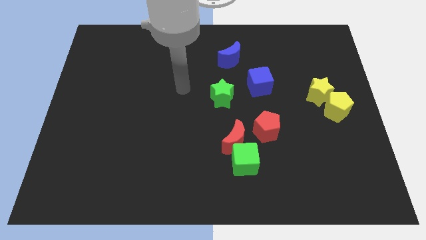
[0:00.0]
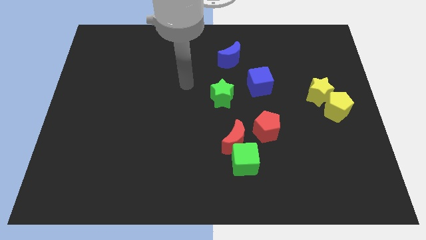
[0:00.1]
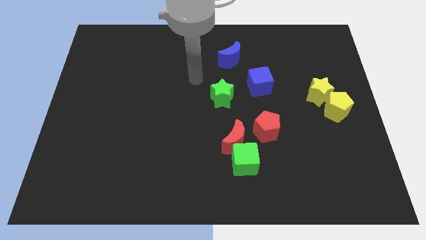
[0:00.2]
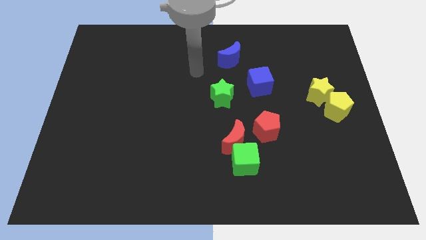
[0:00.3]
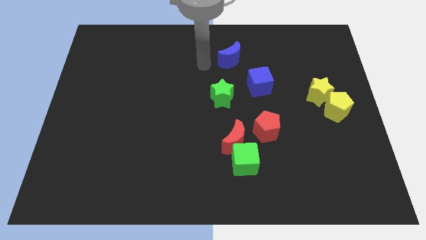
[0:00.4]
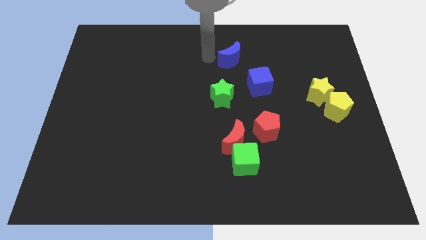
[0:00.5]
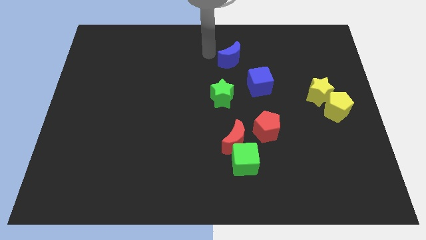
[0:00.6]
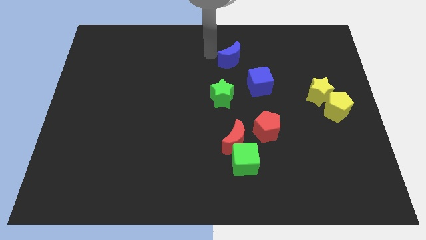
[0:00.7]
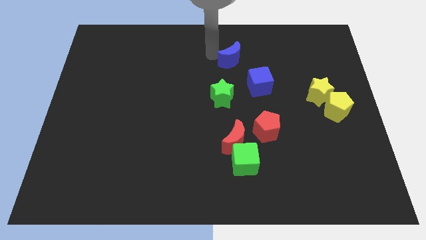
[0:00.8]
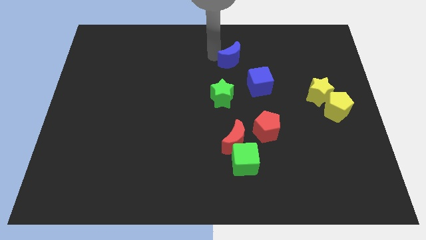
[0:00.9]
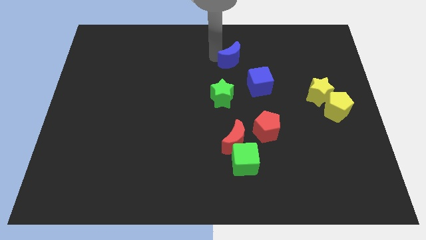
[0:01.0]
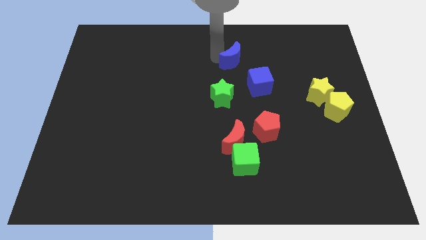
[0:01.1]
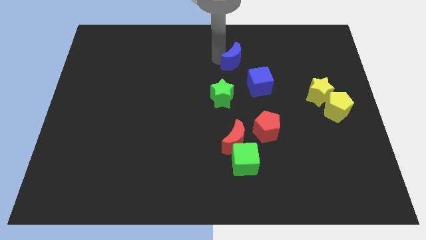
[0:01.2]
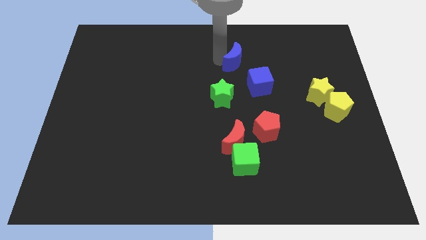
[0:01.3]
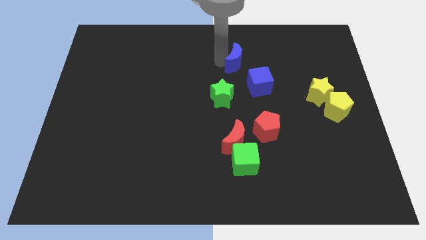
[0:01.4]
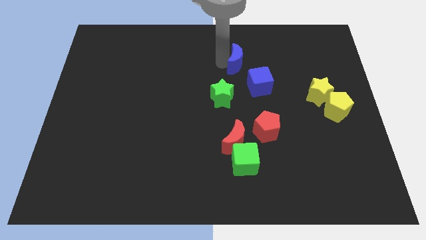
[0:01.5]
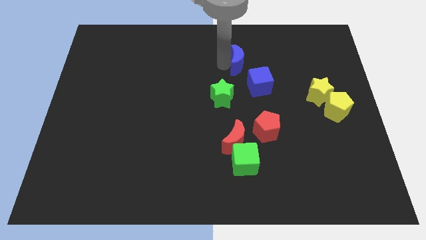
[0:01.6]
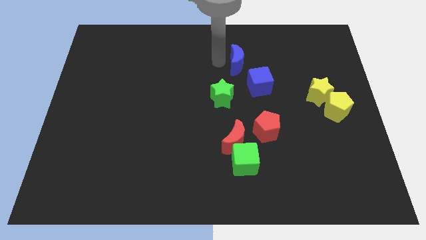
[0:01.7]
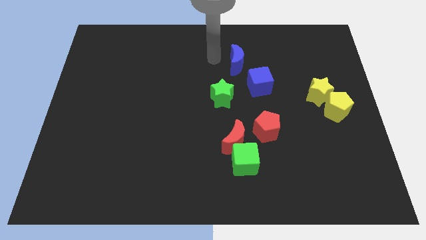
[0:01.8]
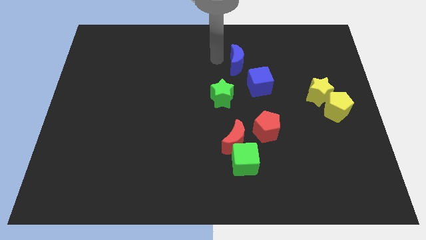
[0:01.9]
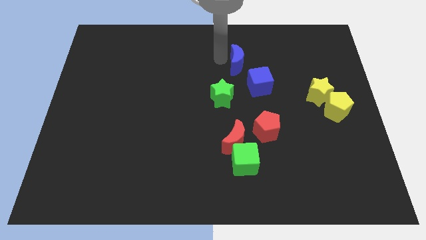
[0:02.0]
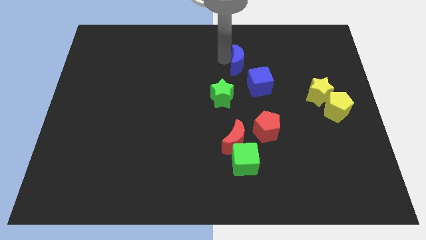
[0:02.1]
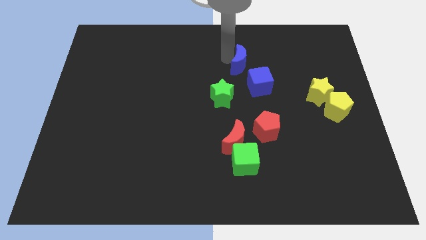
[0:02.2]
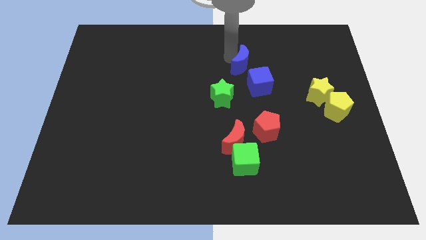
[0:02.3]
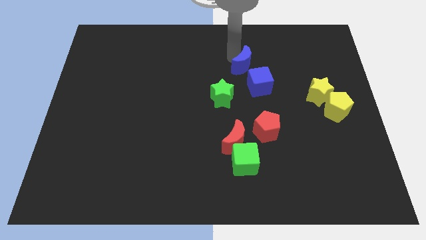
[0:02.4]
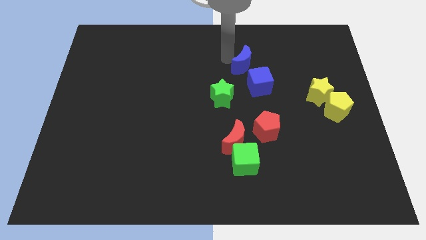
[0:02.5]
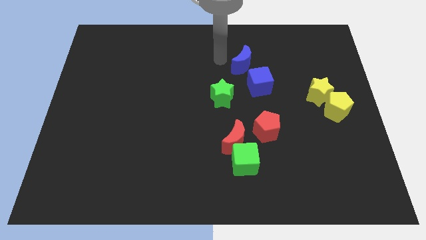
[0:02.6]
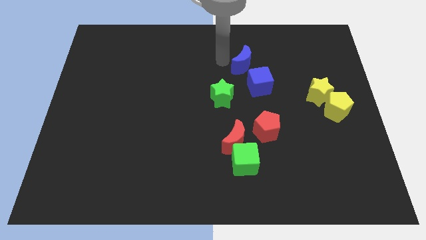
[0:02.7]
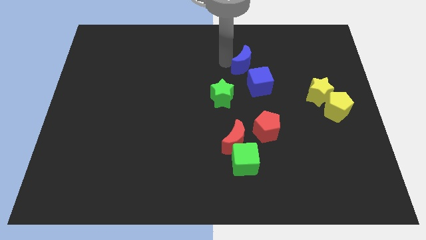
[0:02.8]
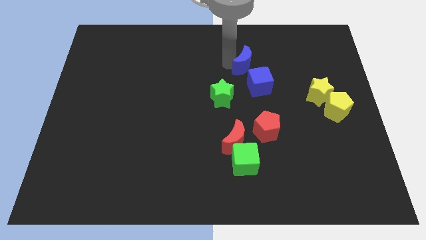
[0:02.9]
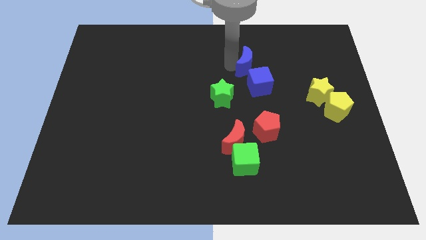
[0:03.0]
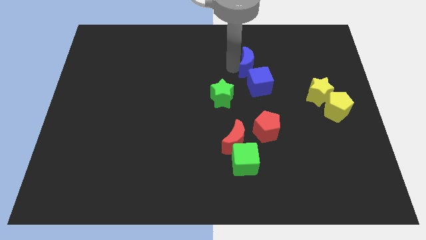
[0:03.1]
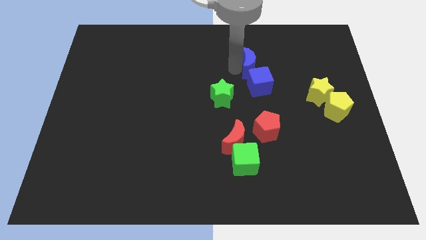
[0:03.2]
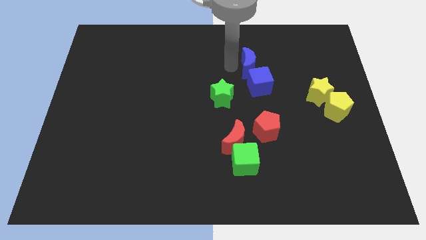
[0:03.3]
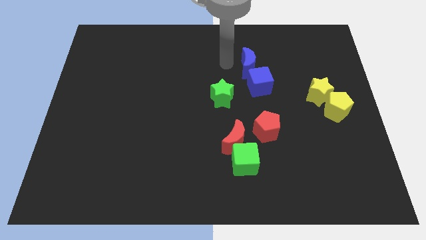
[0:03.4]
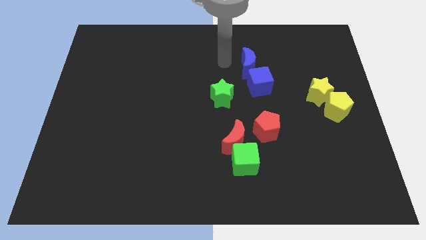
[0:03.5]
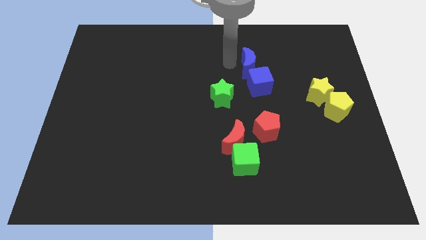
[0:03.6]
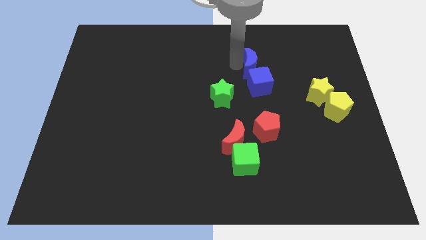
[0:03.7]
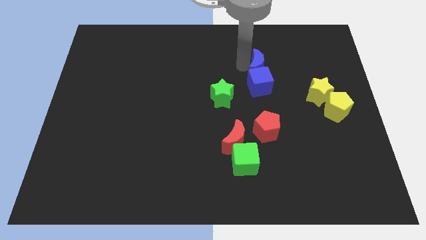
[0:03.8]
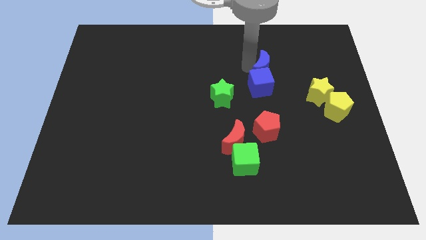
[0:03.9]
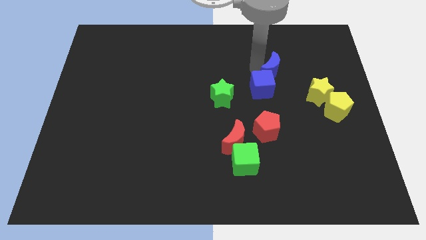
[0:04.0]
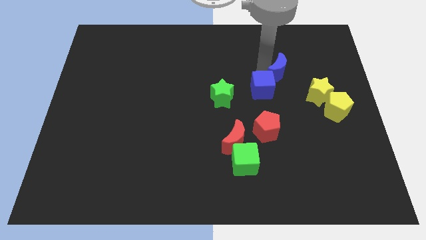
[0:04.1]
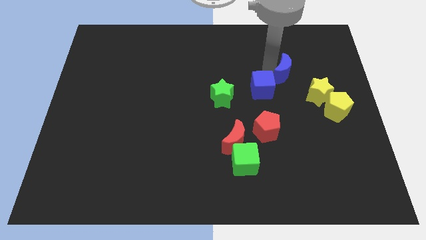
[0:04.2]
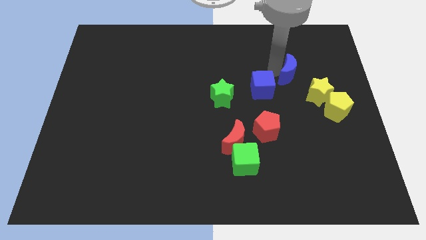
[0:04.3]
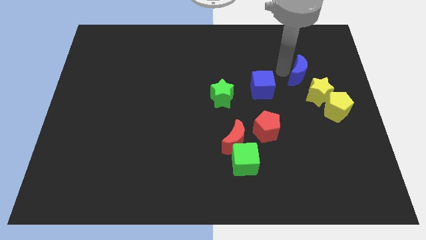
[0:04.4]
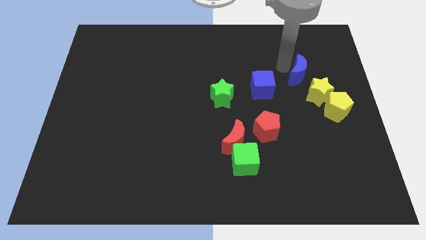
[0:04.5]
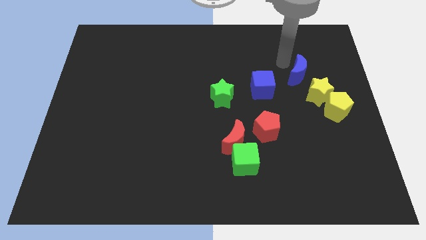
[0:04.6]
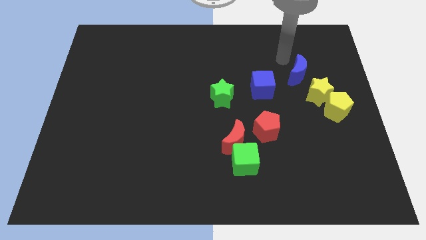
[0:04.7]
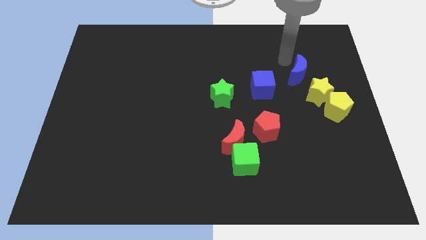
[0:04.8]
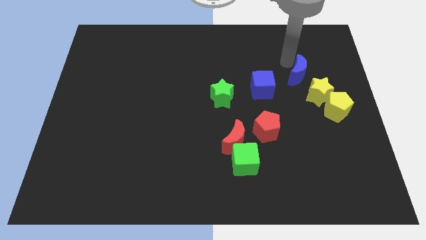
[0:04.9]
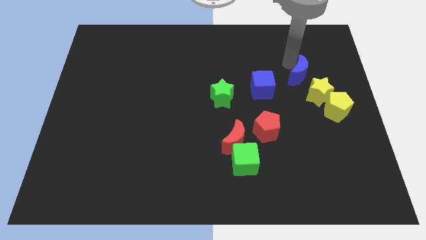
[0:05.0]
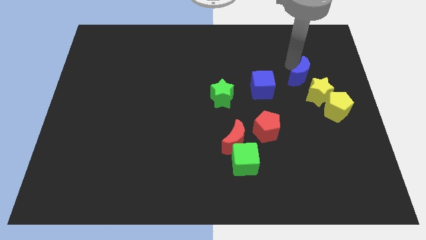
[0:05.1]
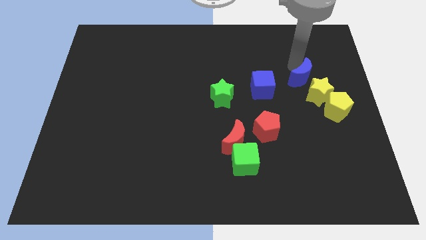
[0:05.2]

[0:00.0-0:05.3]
slide the blue moon towards the yellow star

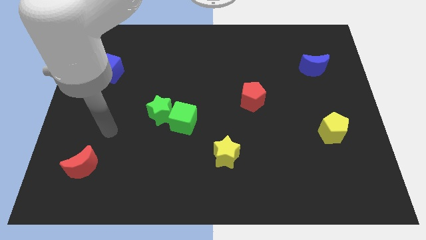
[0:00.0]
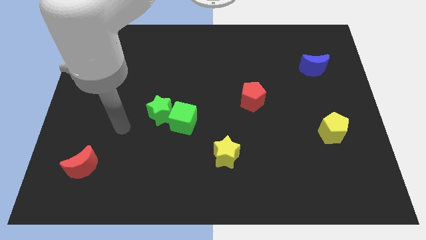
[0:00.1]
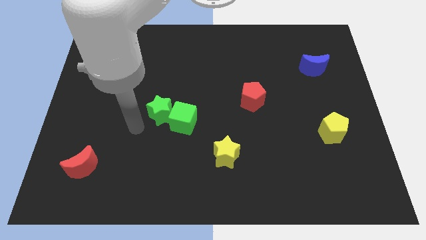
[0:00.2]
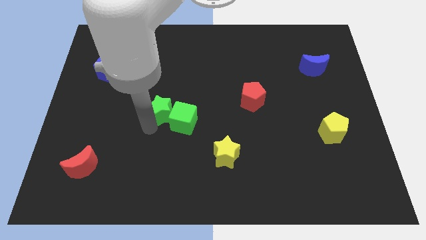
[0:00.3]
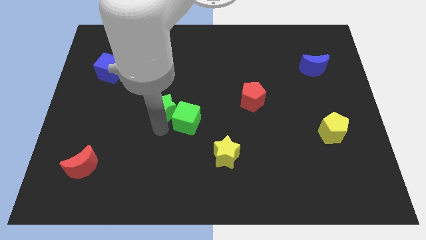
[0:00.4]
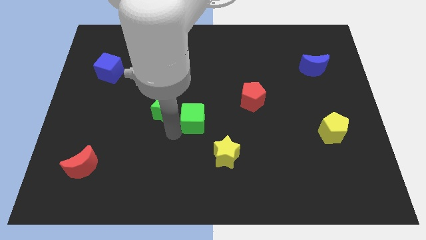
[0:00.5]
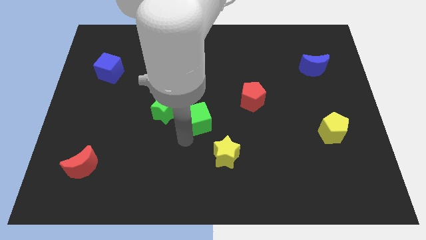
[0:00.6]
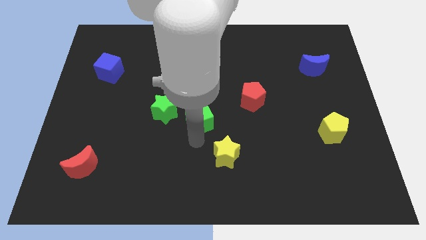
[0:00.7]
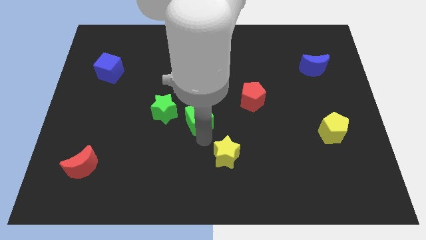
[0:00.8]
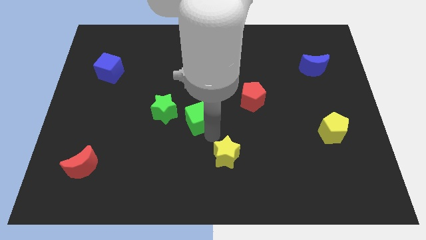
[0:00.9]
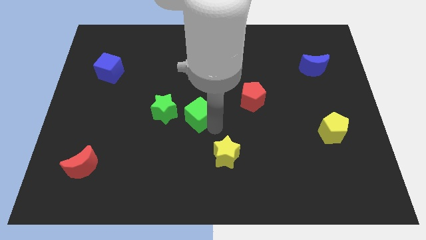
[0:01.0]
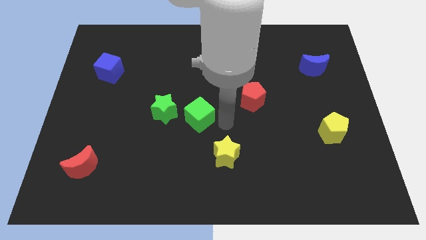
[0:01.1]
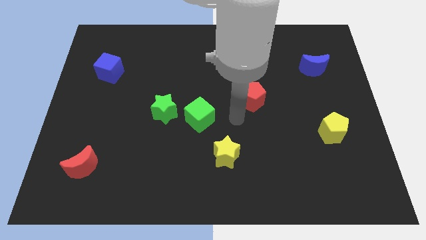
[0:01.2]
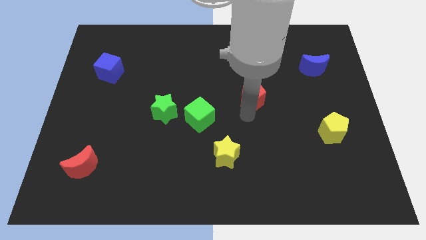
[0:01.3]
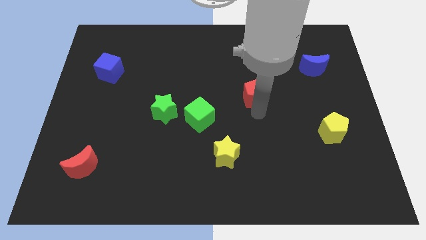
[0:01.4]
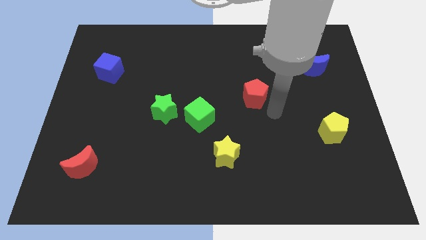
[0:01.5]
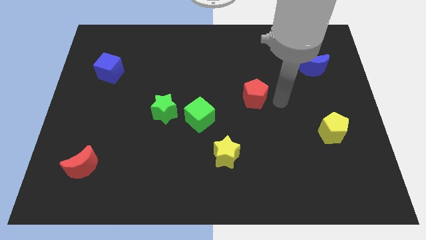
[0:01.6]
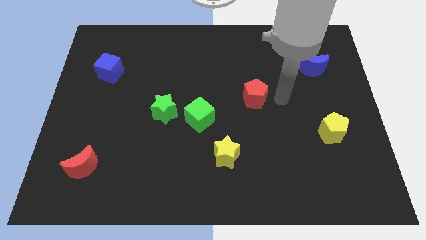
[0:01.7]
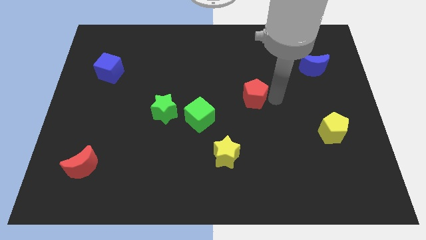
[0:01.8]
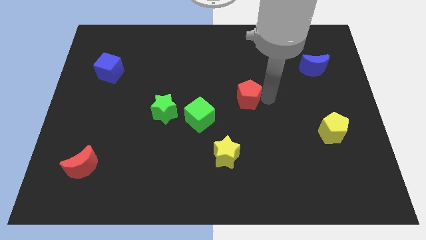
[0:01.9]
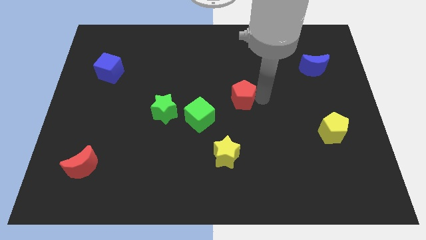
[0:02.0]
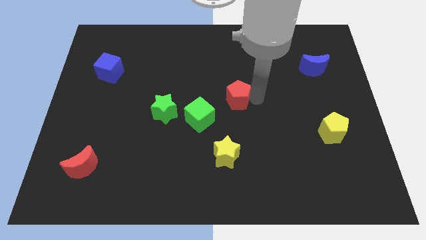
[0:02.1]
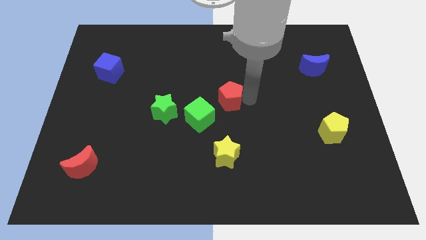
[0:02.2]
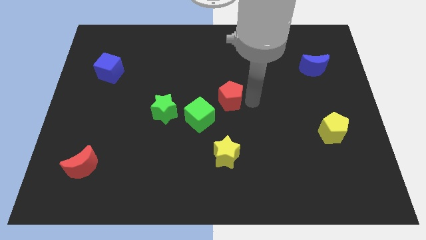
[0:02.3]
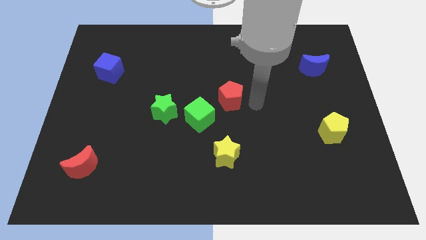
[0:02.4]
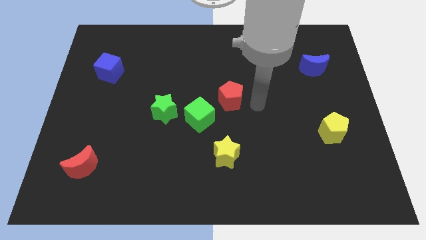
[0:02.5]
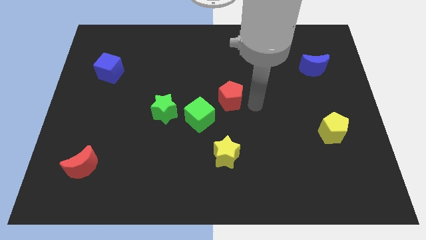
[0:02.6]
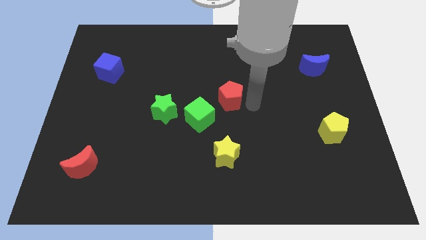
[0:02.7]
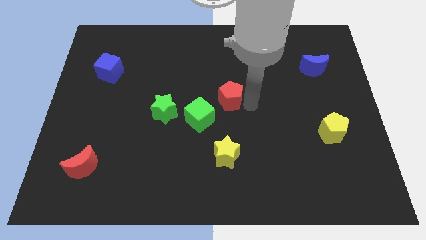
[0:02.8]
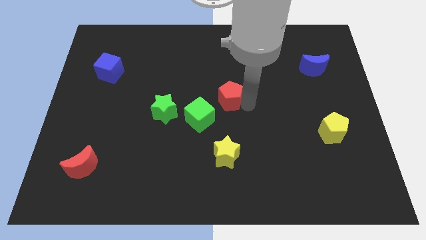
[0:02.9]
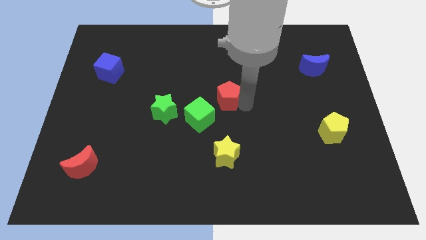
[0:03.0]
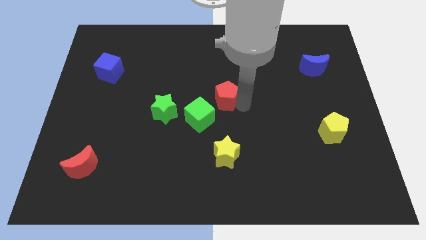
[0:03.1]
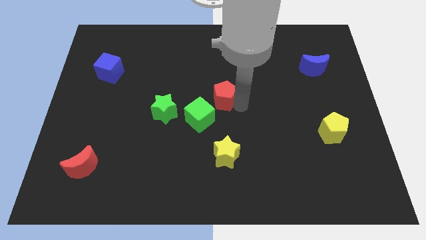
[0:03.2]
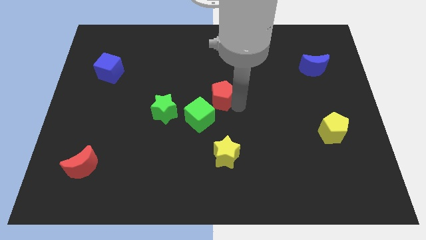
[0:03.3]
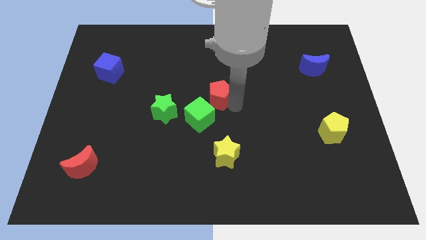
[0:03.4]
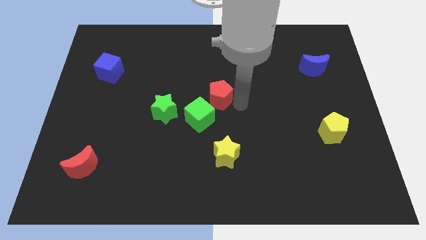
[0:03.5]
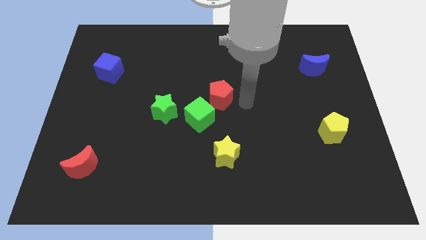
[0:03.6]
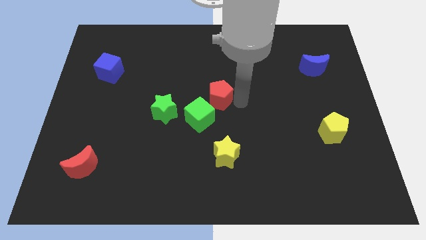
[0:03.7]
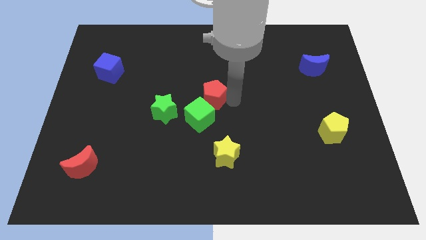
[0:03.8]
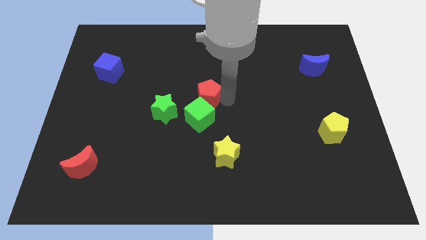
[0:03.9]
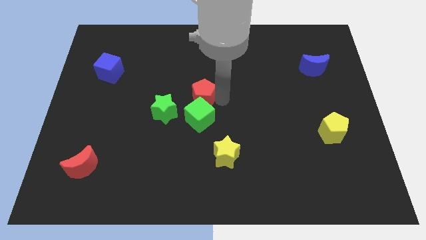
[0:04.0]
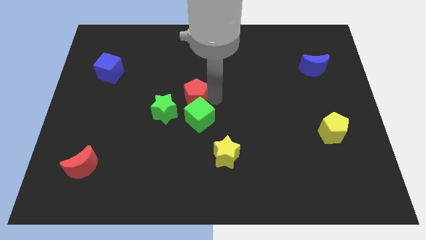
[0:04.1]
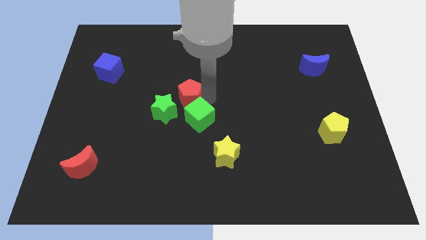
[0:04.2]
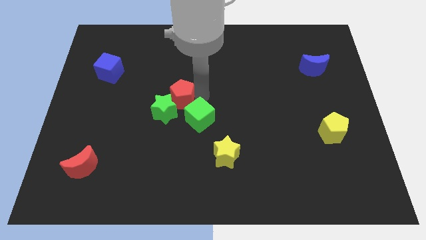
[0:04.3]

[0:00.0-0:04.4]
move the red pentagon close to the green star
